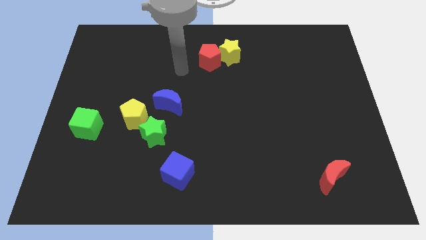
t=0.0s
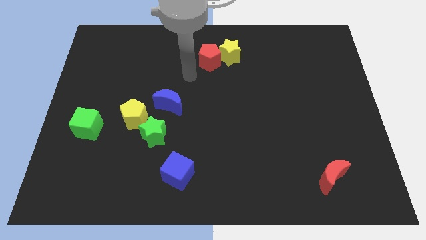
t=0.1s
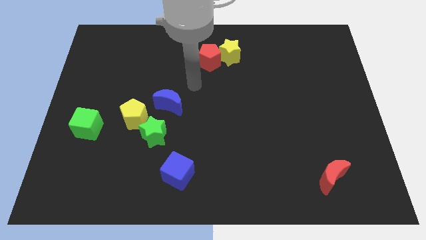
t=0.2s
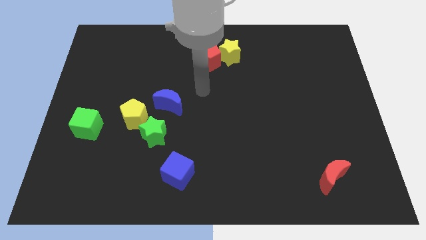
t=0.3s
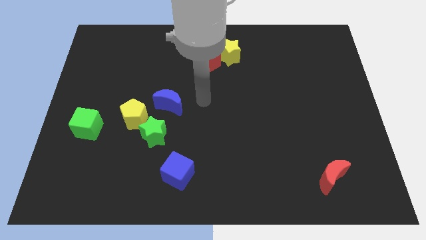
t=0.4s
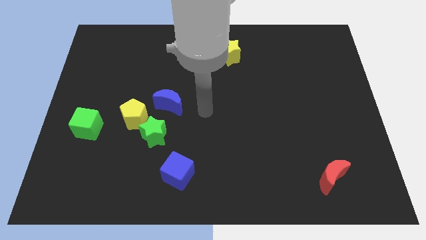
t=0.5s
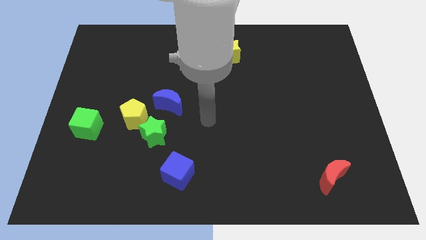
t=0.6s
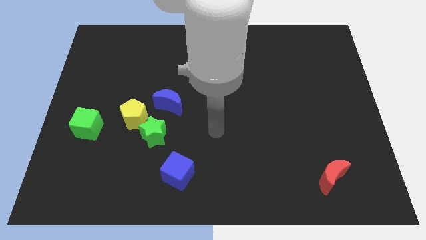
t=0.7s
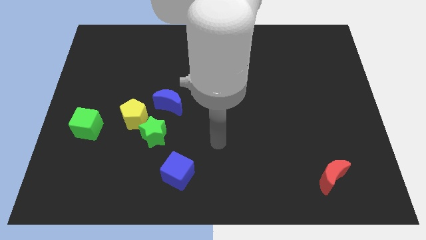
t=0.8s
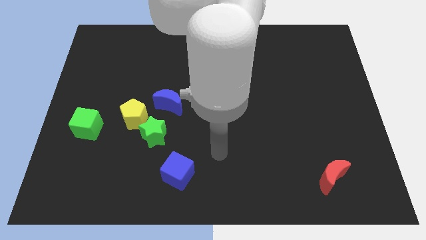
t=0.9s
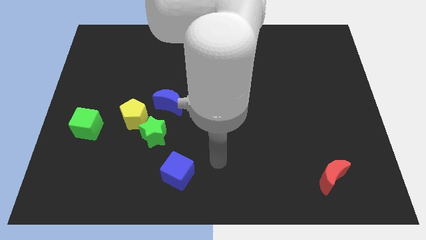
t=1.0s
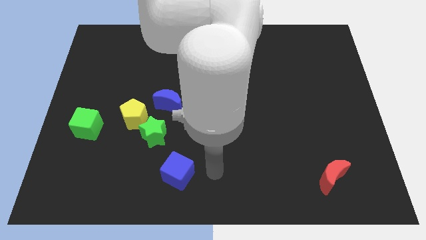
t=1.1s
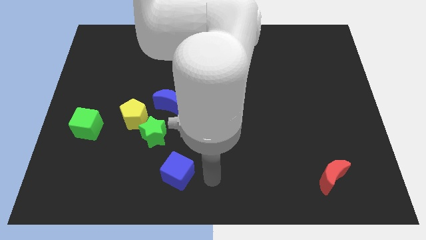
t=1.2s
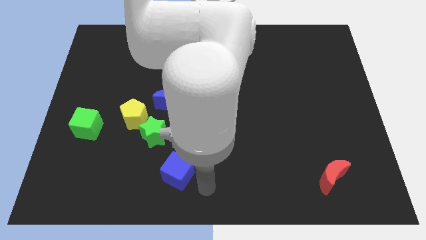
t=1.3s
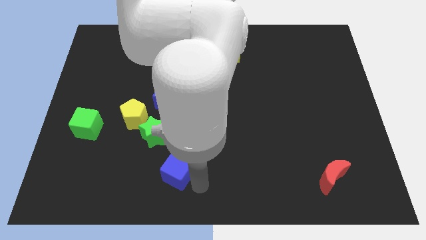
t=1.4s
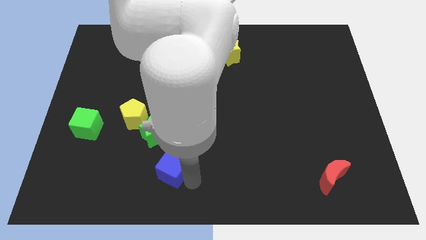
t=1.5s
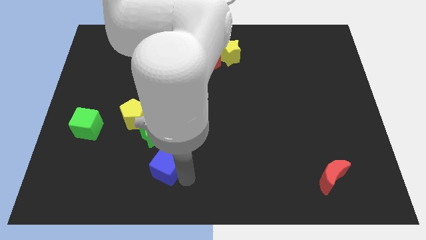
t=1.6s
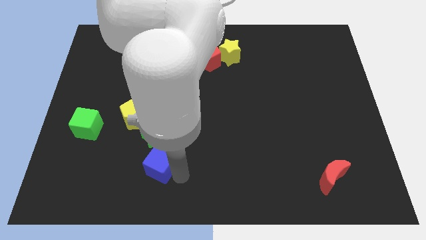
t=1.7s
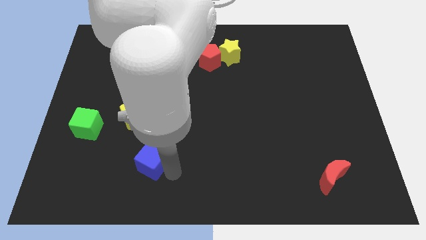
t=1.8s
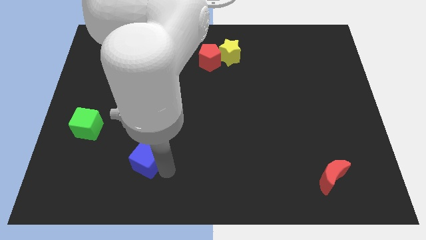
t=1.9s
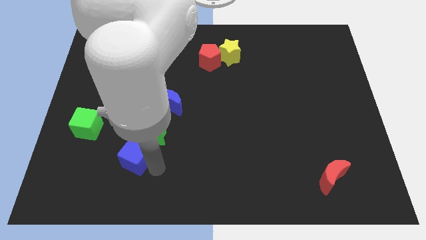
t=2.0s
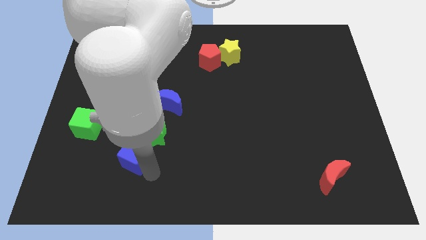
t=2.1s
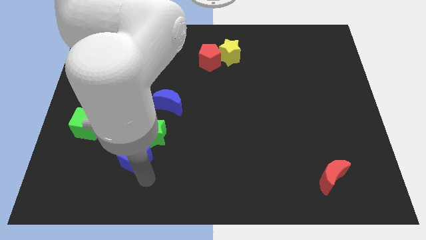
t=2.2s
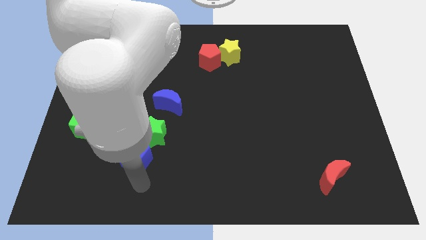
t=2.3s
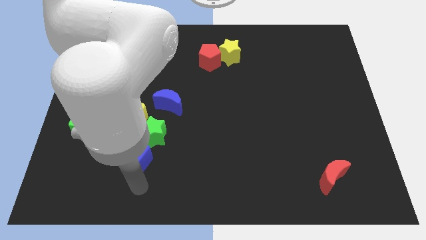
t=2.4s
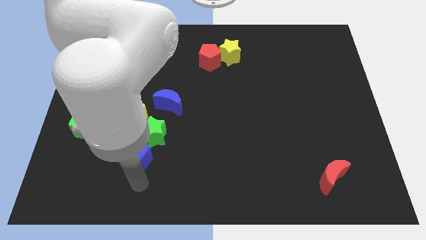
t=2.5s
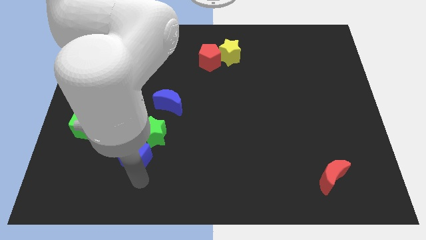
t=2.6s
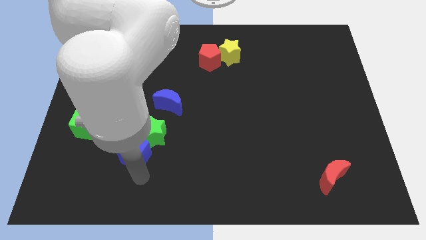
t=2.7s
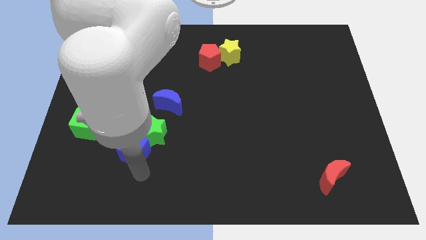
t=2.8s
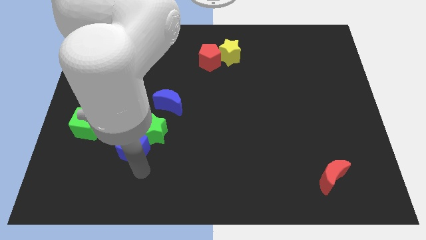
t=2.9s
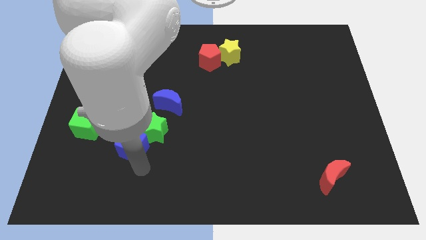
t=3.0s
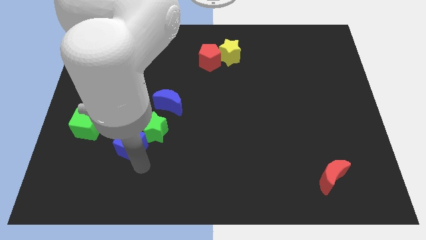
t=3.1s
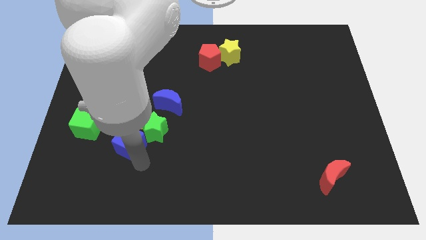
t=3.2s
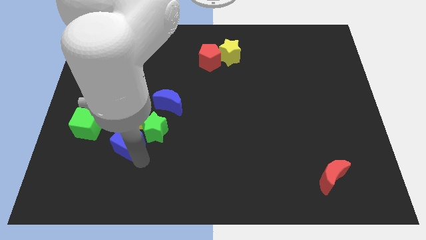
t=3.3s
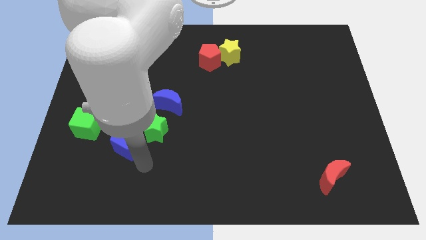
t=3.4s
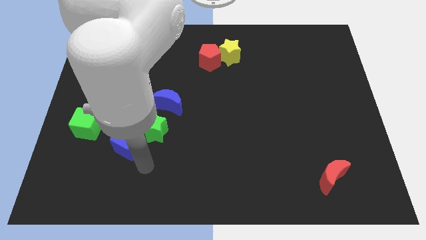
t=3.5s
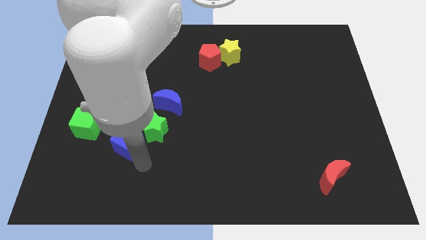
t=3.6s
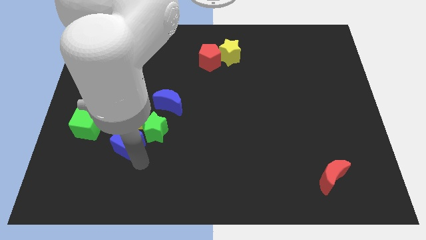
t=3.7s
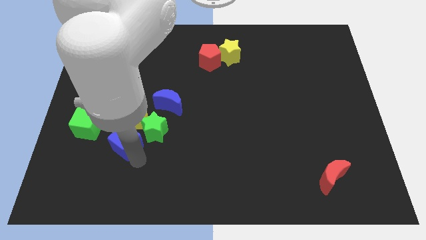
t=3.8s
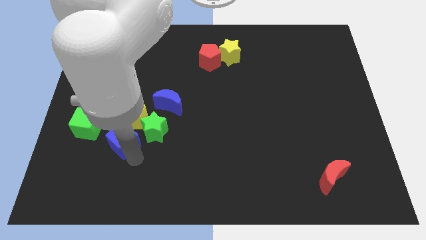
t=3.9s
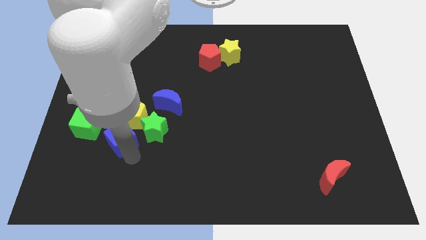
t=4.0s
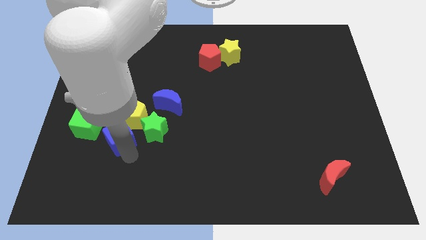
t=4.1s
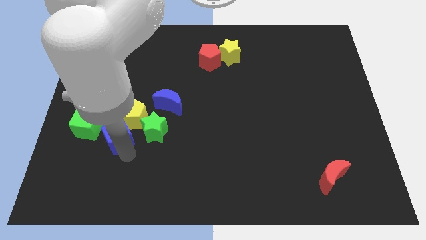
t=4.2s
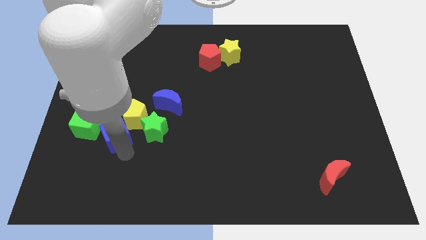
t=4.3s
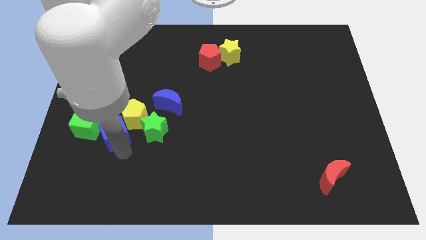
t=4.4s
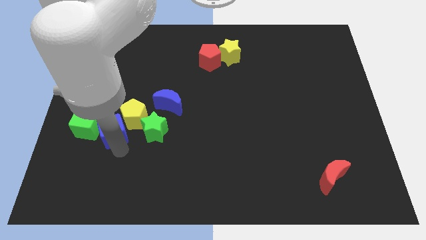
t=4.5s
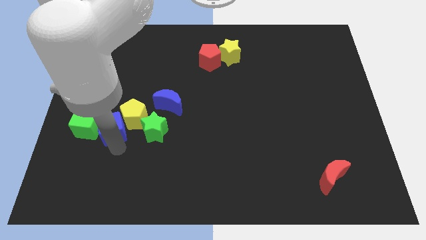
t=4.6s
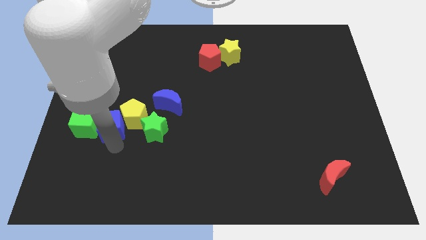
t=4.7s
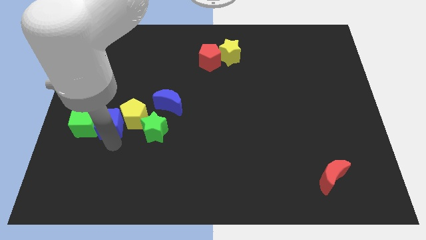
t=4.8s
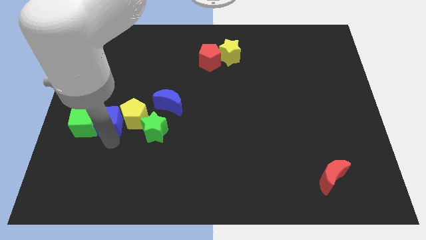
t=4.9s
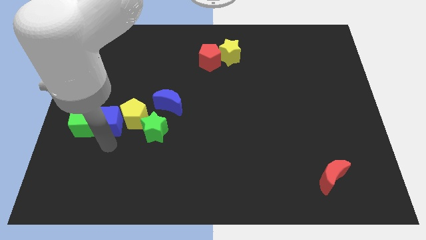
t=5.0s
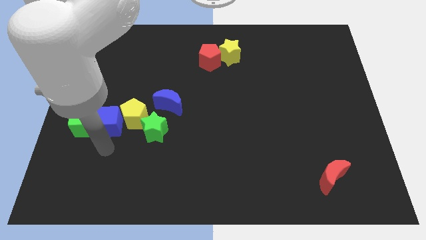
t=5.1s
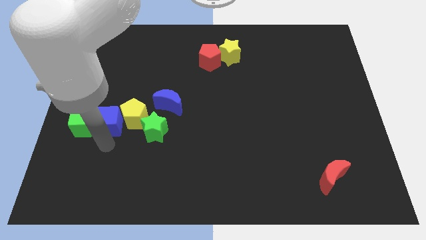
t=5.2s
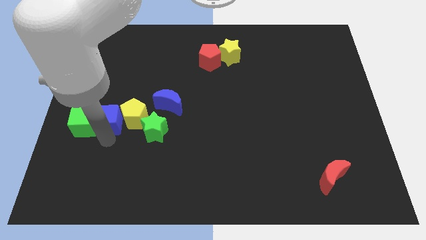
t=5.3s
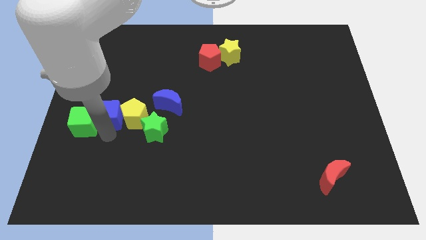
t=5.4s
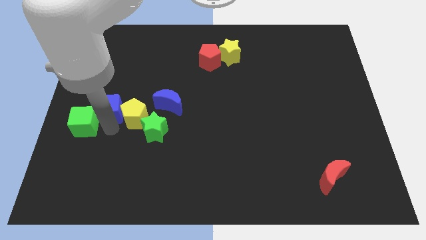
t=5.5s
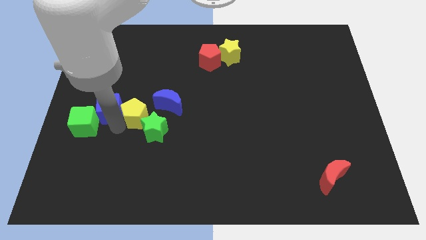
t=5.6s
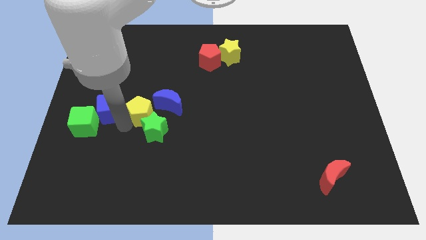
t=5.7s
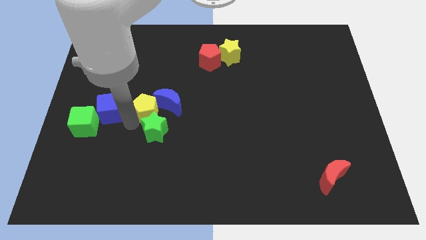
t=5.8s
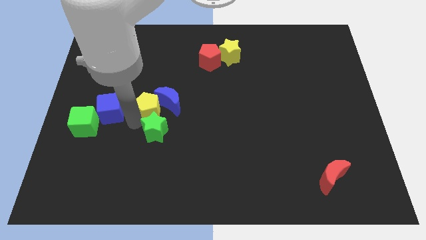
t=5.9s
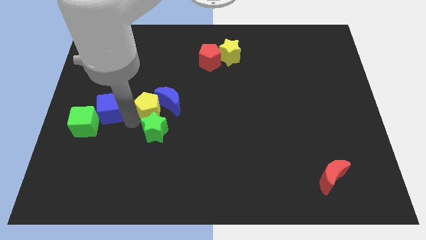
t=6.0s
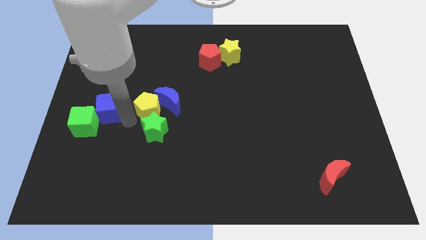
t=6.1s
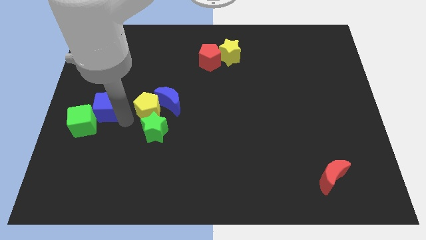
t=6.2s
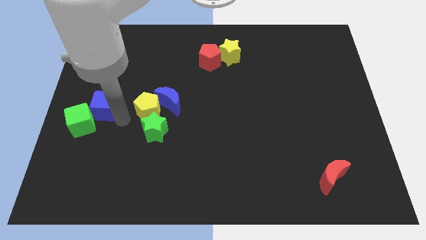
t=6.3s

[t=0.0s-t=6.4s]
push the blue cube to the left side of the board
